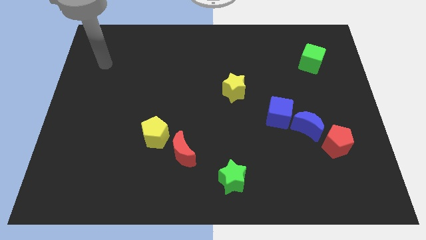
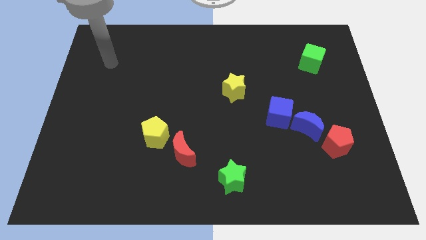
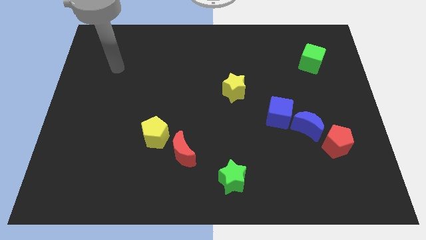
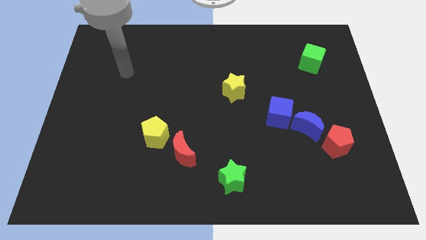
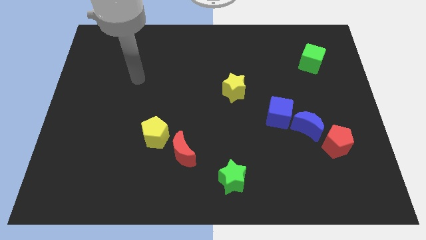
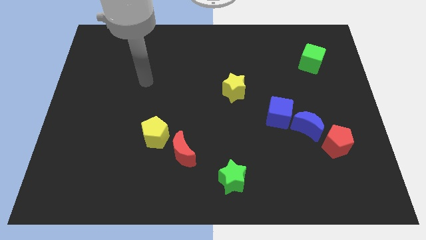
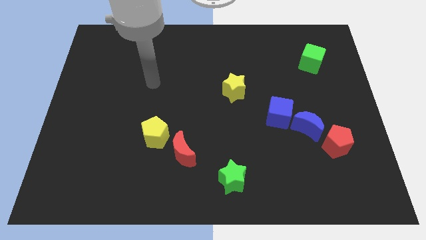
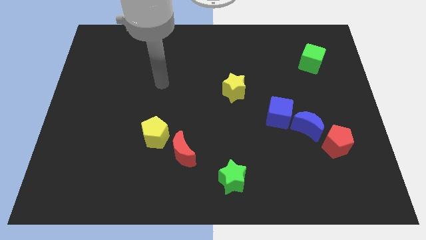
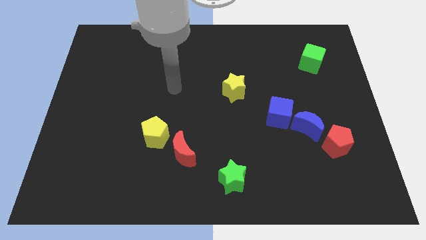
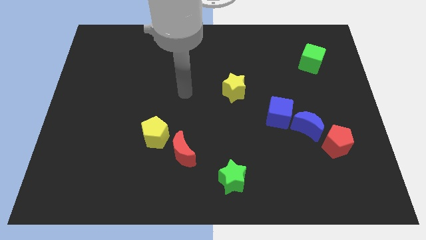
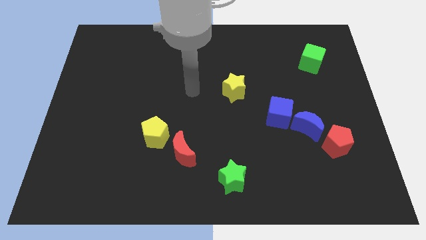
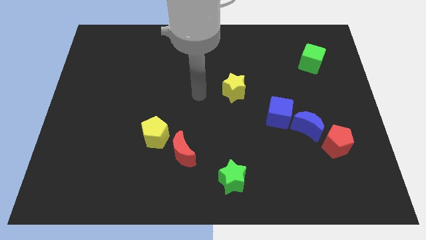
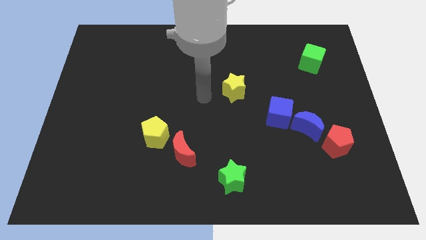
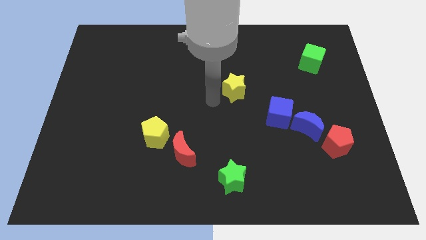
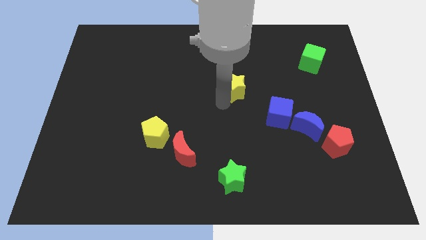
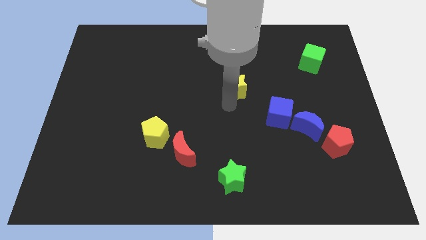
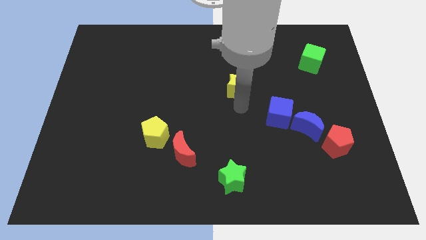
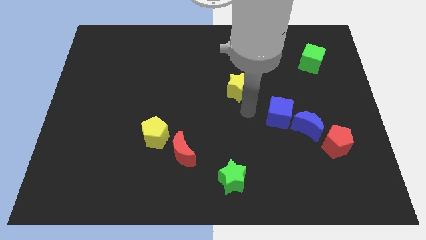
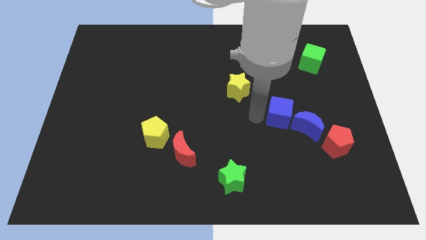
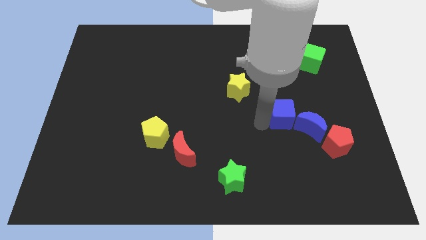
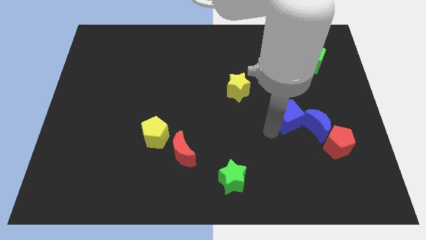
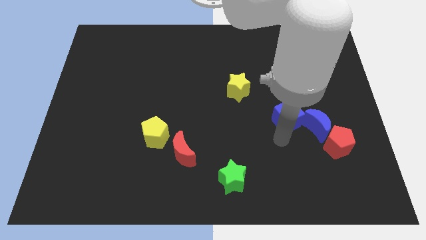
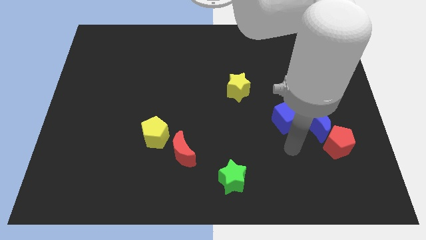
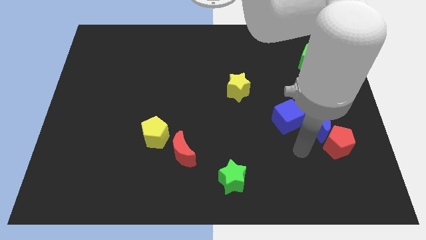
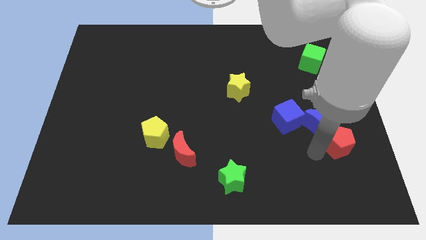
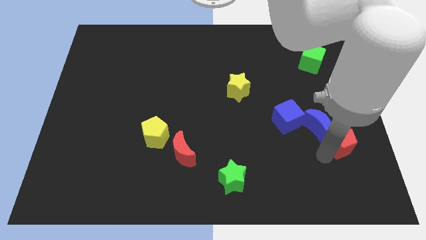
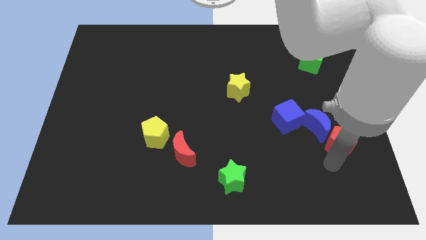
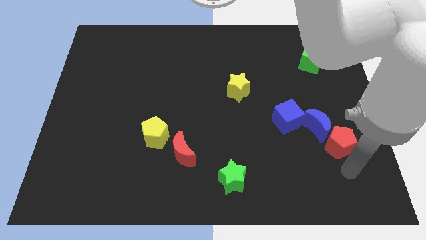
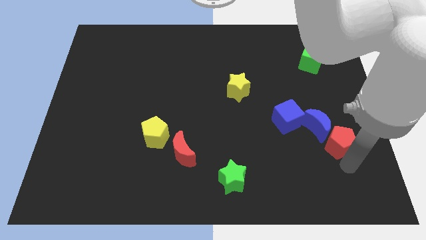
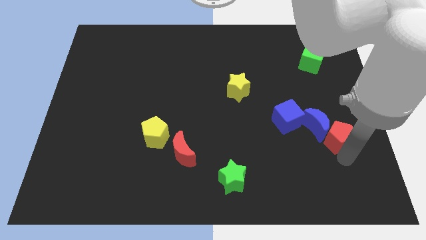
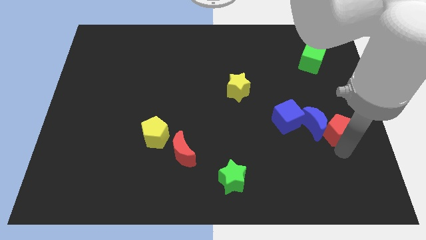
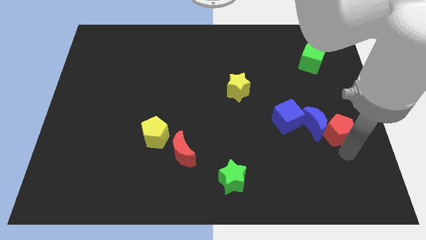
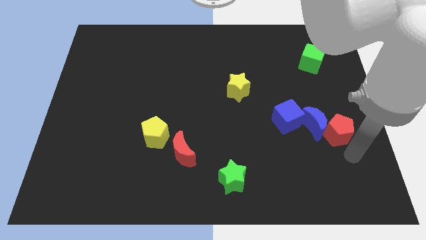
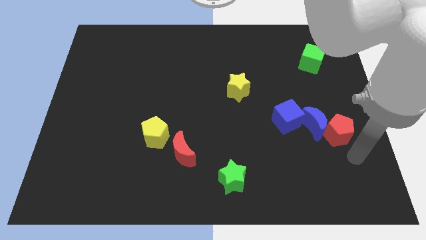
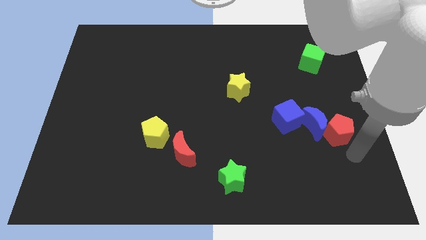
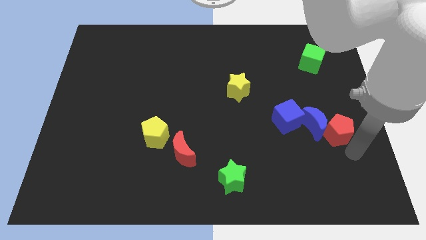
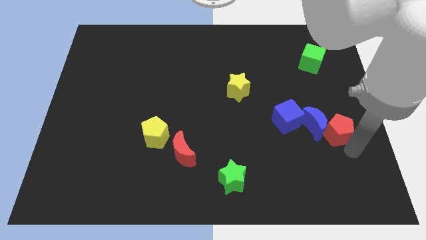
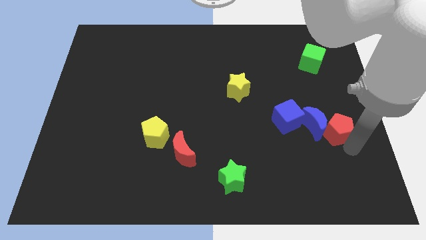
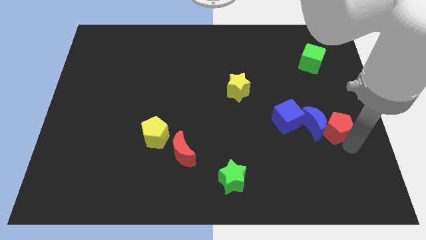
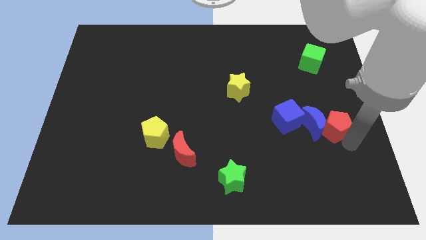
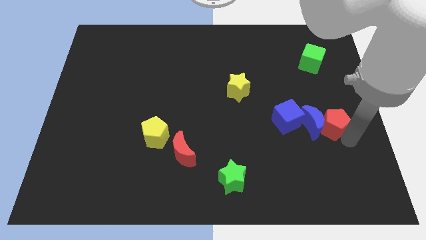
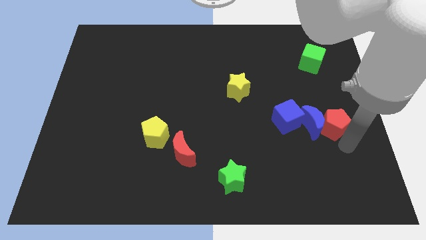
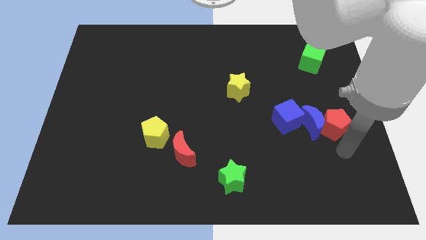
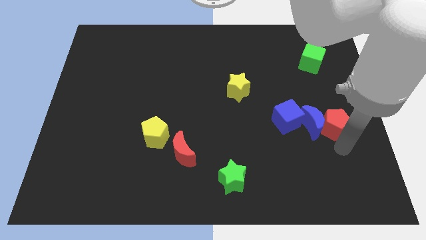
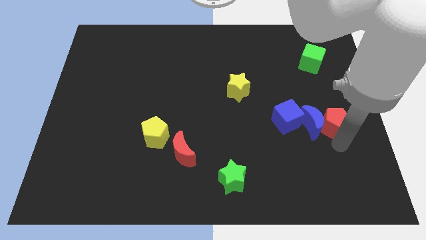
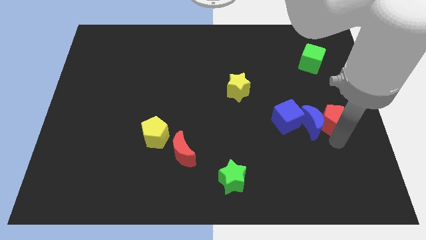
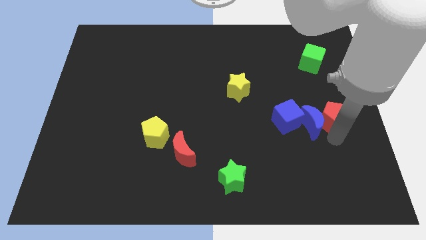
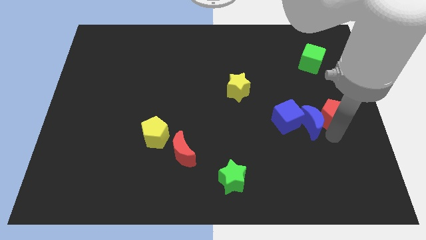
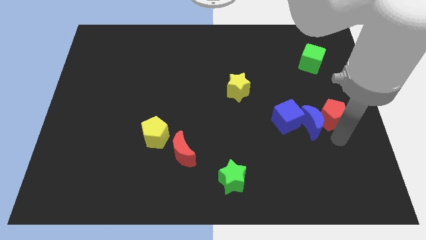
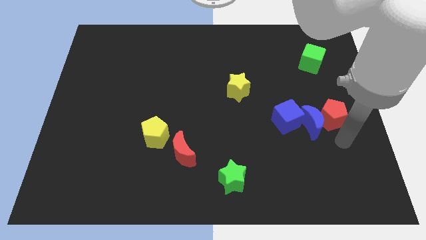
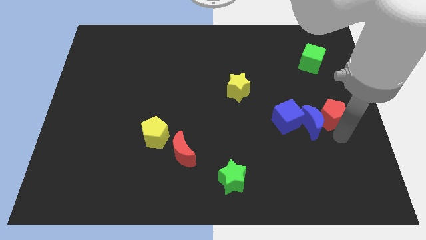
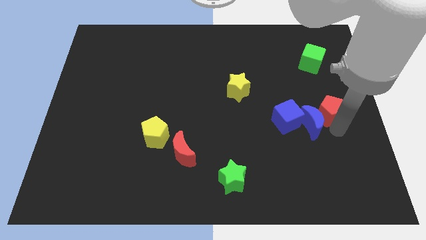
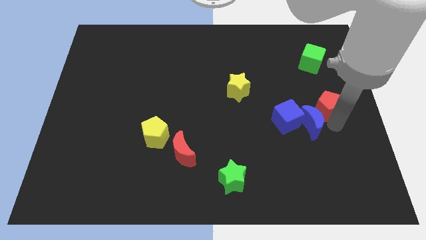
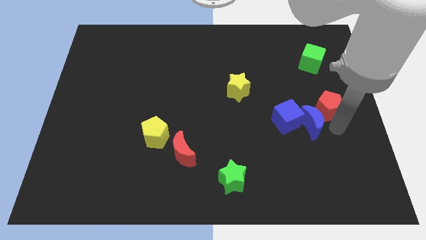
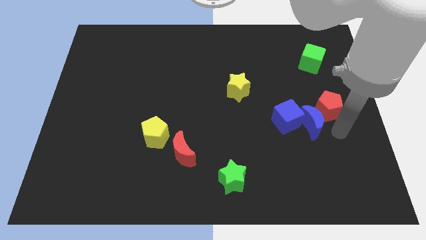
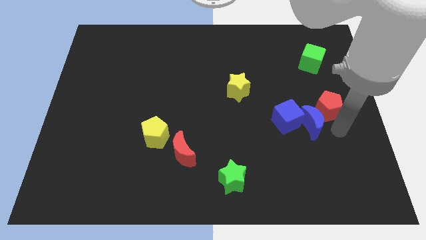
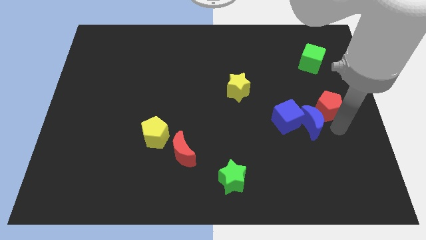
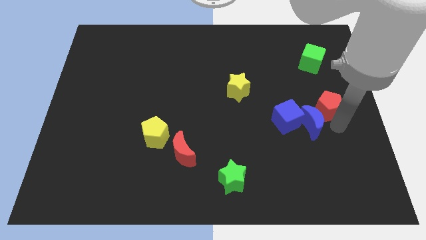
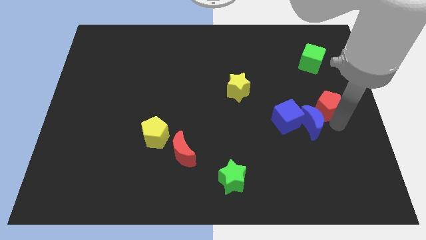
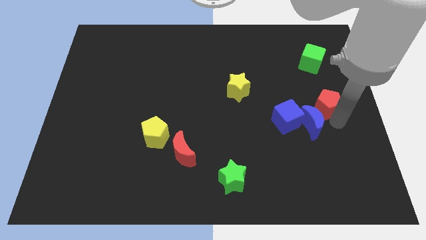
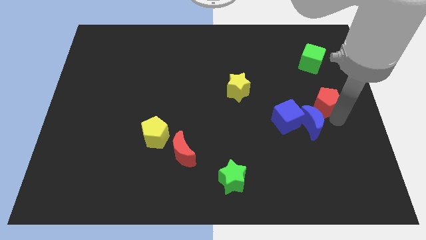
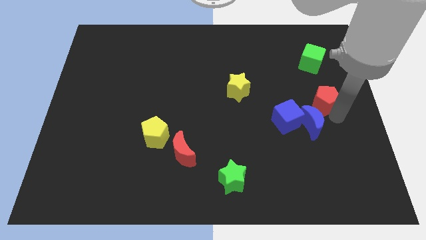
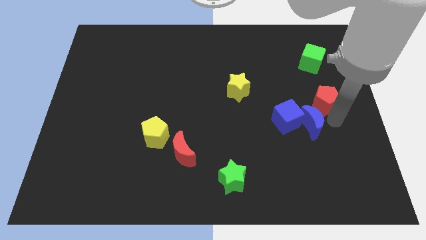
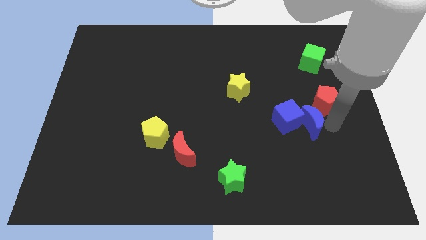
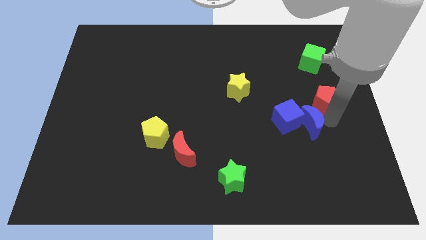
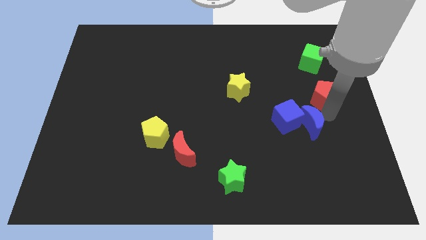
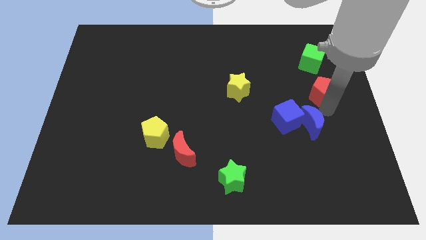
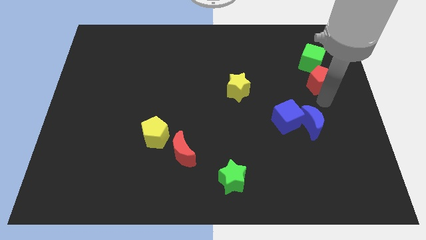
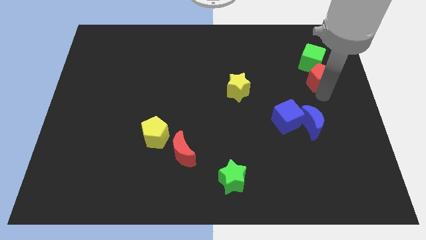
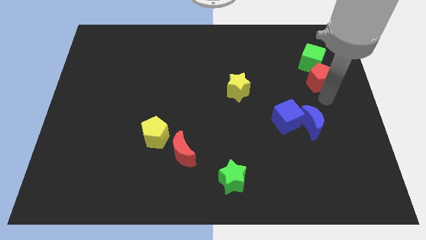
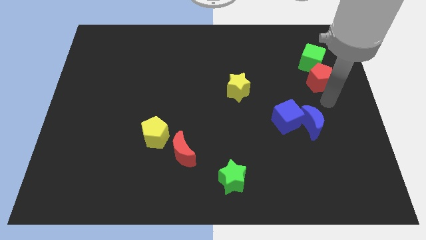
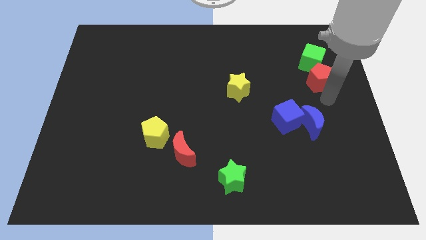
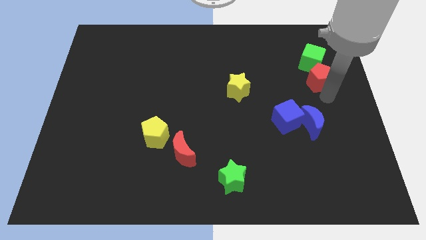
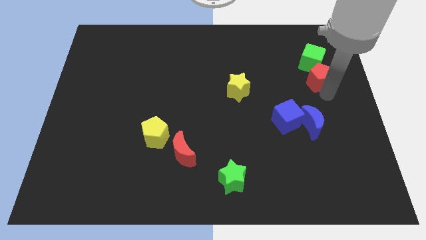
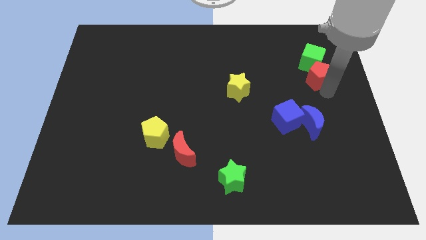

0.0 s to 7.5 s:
push the red pentagon towards the green cube
